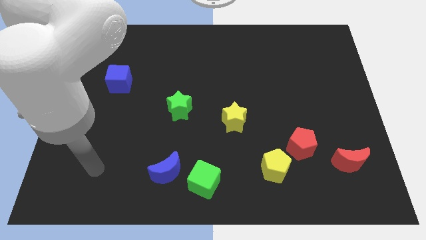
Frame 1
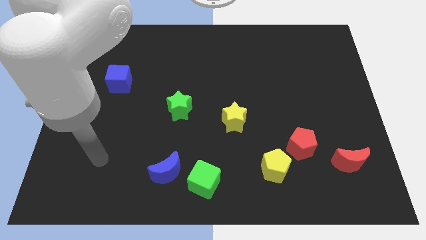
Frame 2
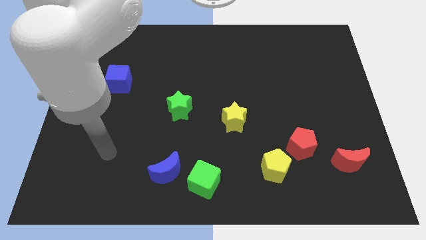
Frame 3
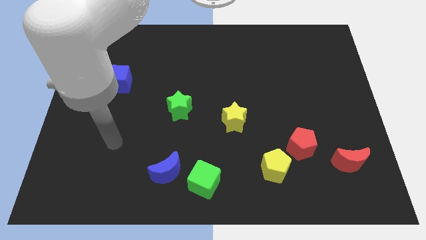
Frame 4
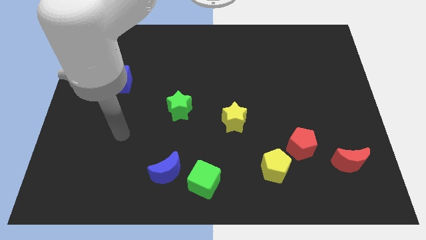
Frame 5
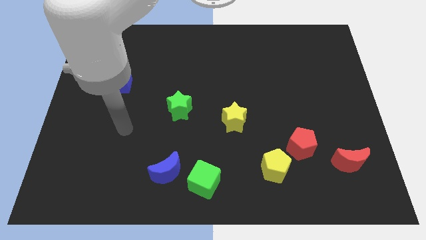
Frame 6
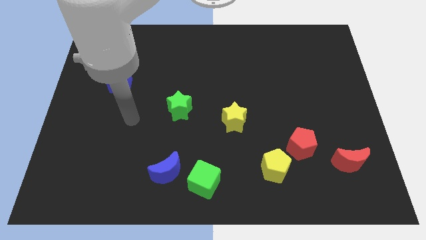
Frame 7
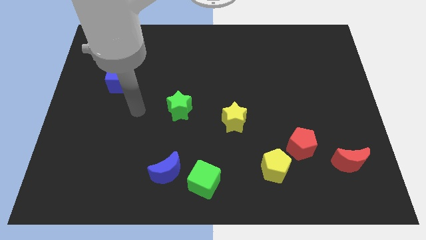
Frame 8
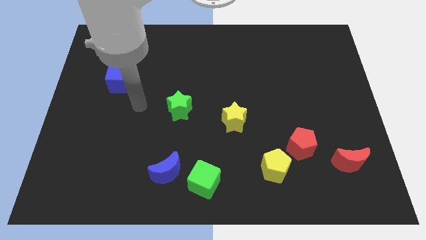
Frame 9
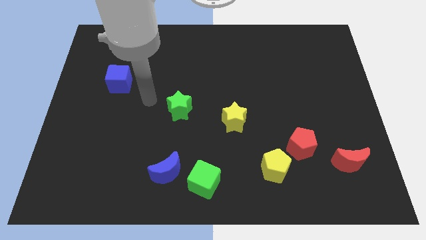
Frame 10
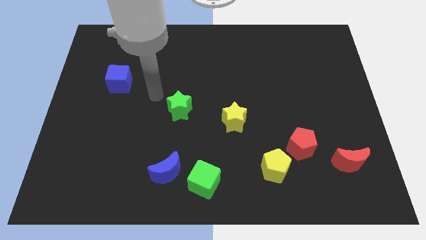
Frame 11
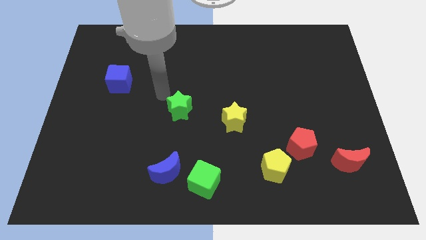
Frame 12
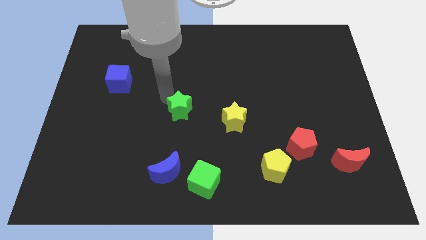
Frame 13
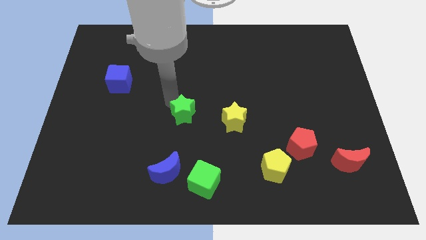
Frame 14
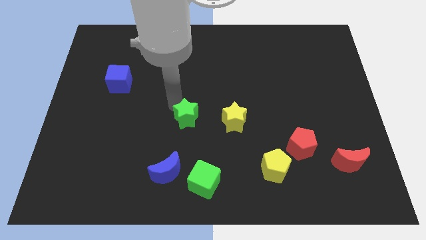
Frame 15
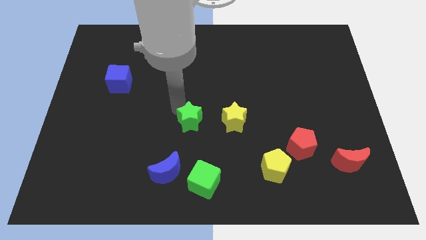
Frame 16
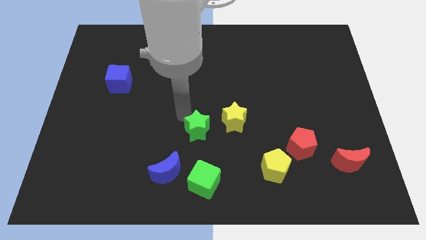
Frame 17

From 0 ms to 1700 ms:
slide the green star slightly down and then right

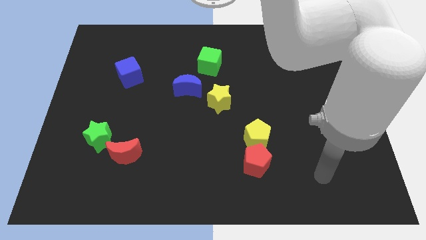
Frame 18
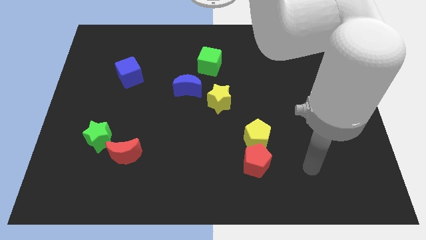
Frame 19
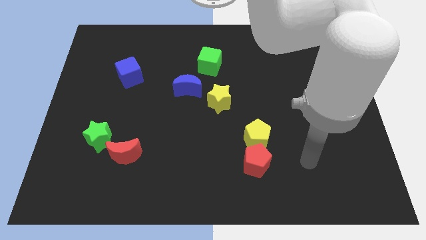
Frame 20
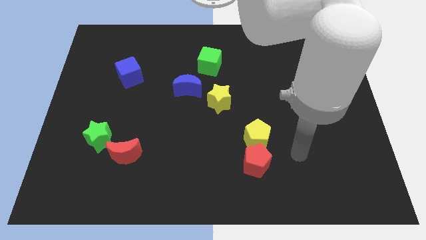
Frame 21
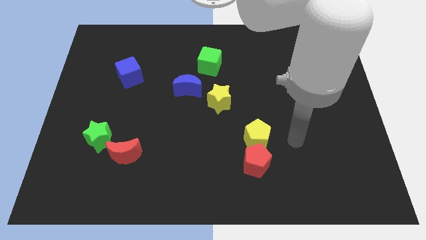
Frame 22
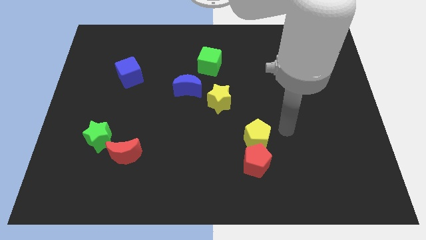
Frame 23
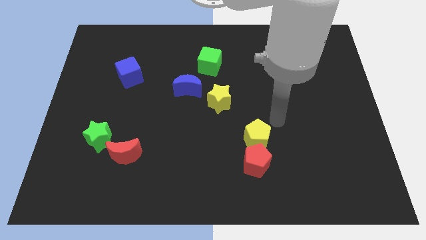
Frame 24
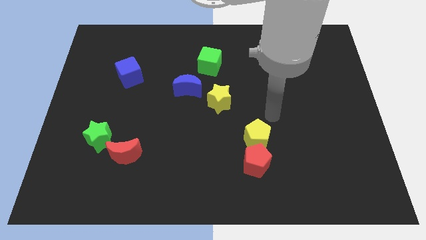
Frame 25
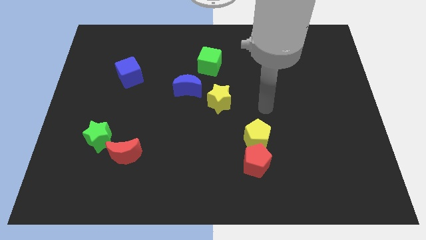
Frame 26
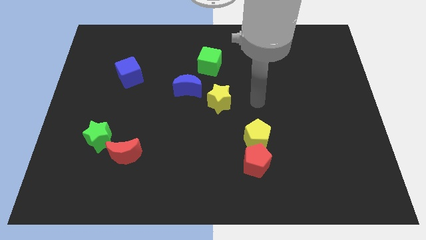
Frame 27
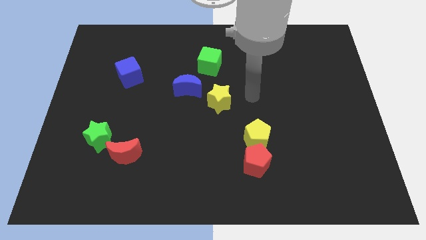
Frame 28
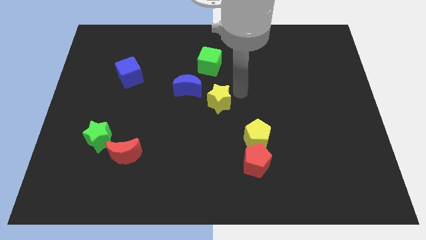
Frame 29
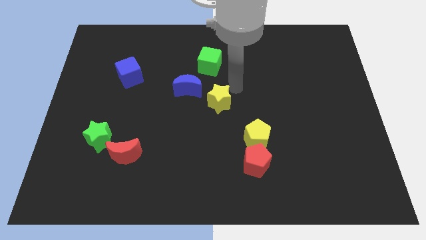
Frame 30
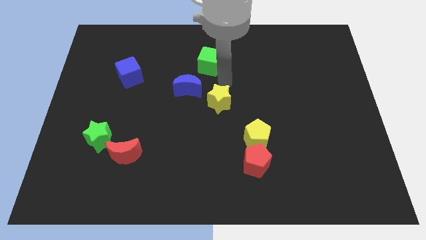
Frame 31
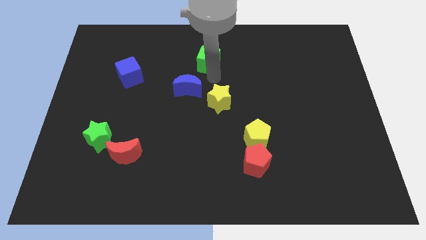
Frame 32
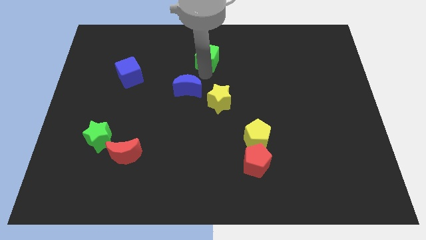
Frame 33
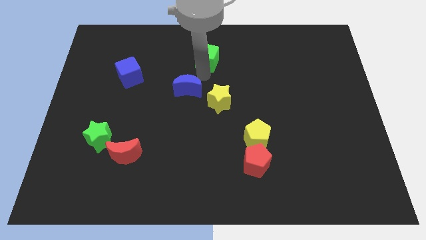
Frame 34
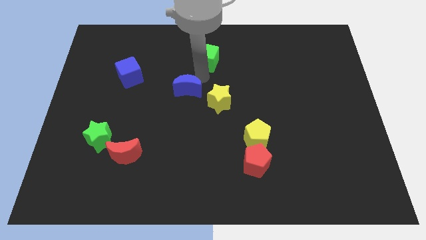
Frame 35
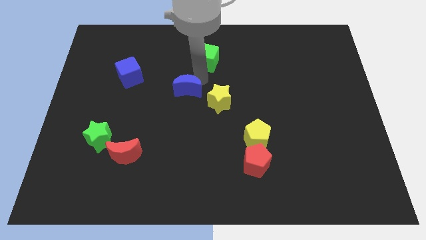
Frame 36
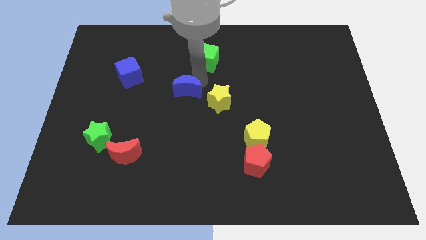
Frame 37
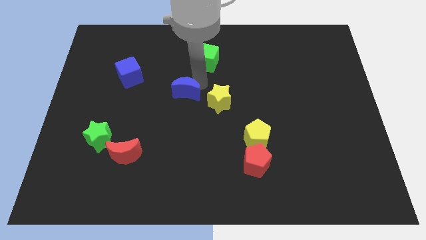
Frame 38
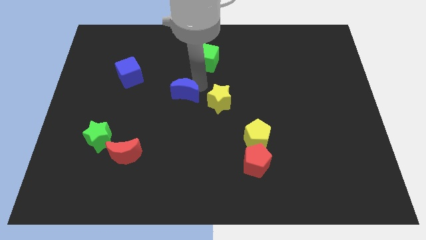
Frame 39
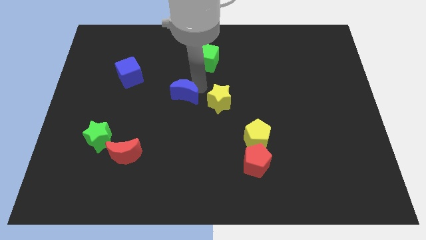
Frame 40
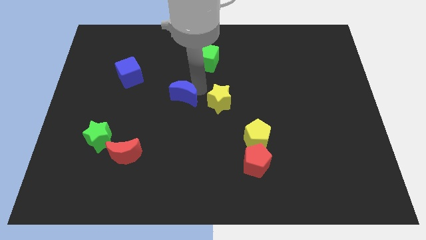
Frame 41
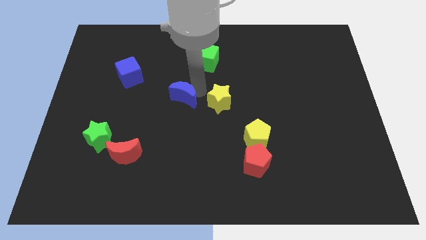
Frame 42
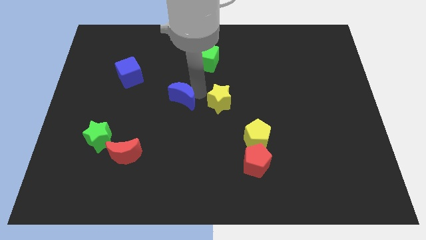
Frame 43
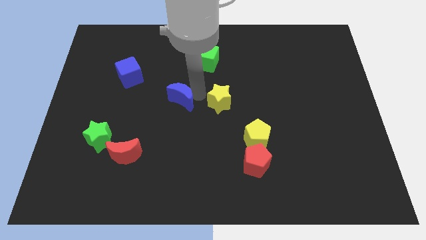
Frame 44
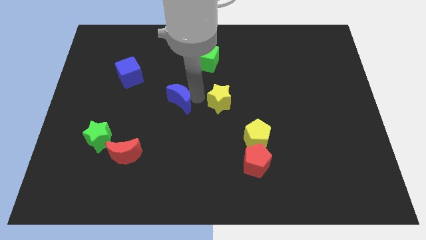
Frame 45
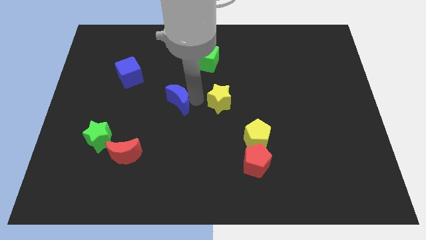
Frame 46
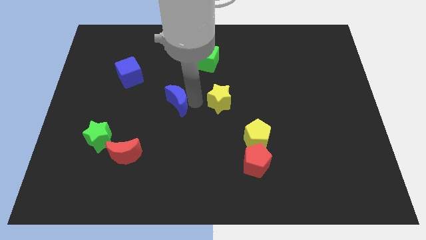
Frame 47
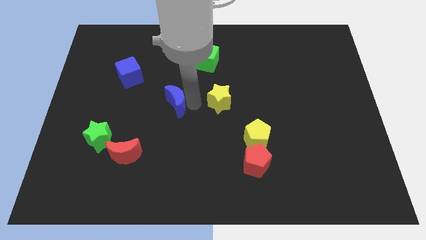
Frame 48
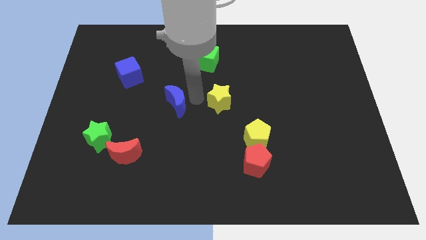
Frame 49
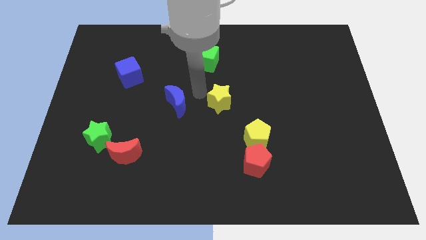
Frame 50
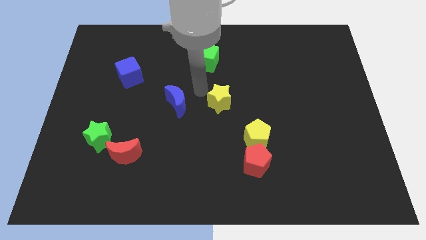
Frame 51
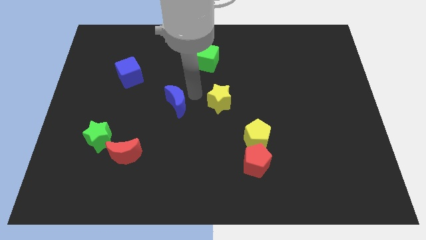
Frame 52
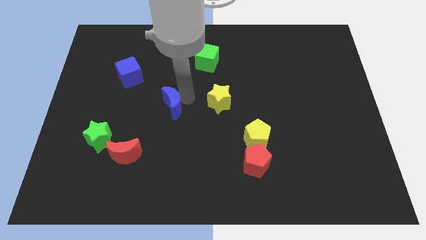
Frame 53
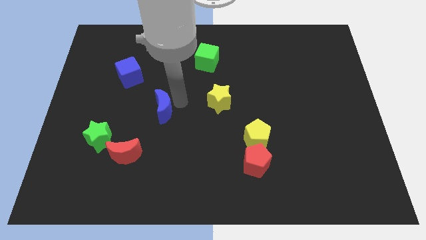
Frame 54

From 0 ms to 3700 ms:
push the blue moon slightly down and then to the left

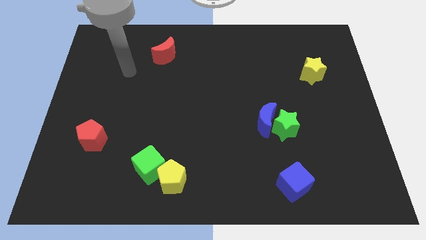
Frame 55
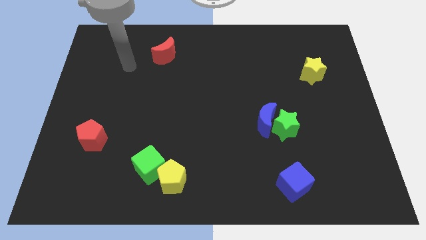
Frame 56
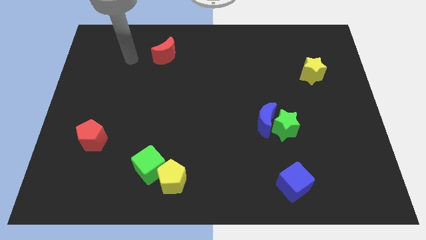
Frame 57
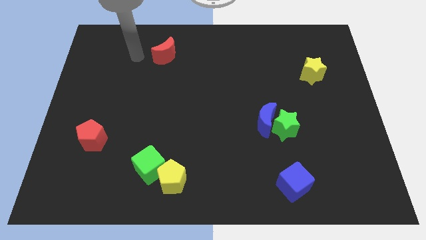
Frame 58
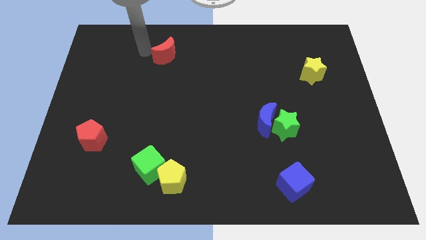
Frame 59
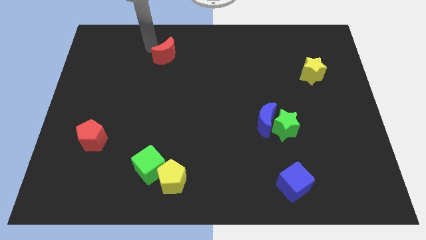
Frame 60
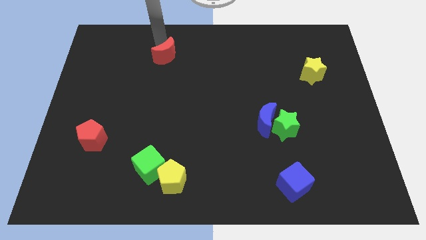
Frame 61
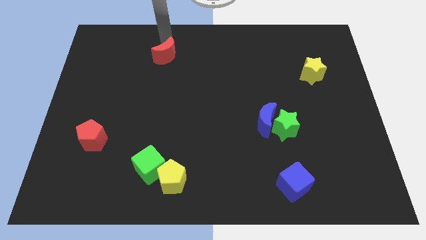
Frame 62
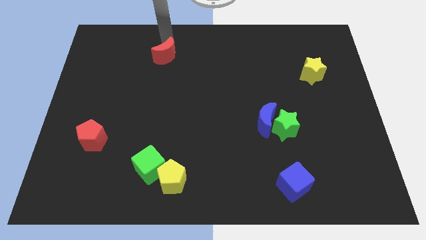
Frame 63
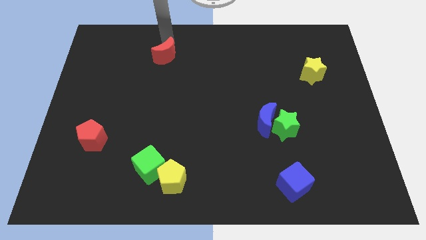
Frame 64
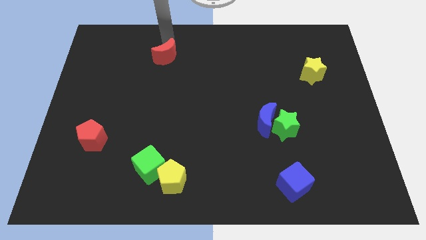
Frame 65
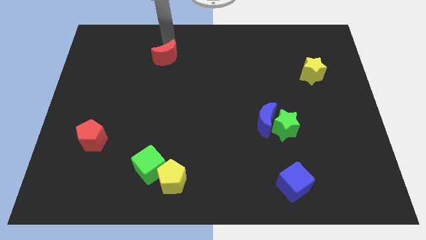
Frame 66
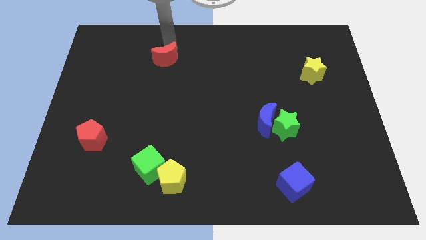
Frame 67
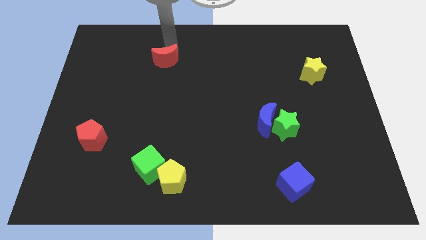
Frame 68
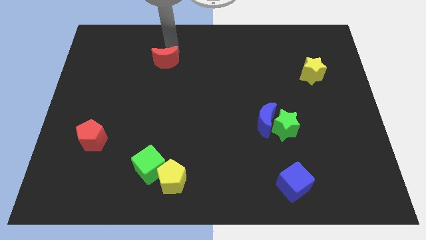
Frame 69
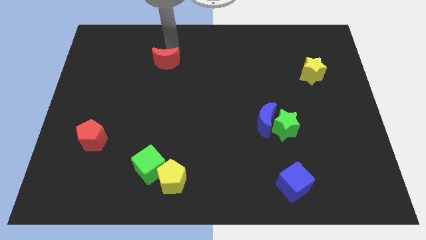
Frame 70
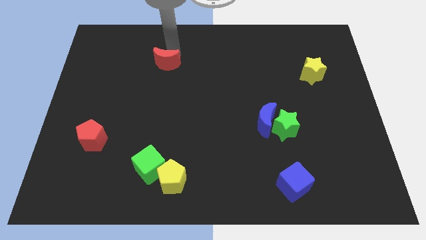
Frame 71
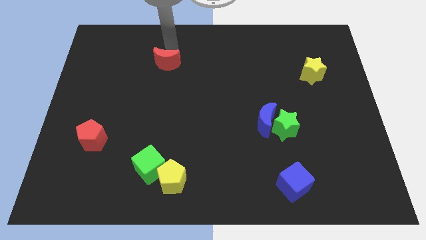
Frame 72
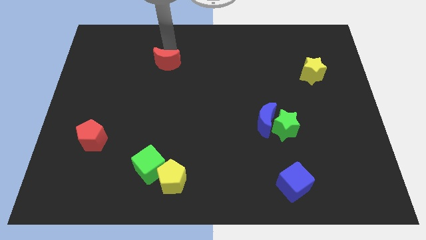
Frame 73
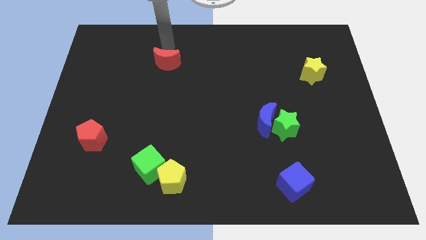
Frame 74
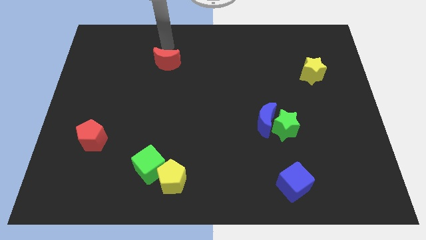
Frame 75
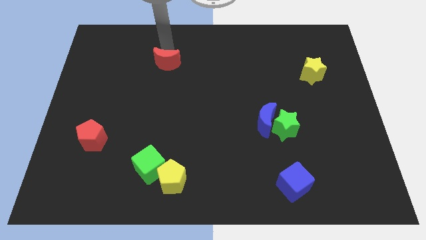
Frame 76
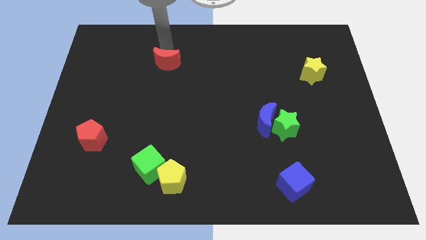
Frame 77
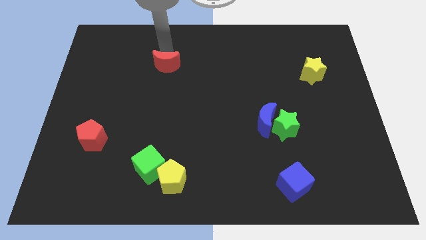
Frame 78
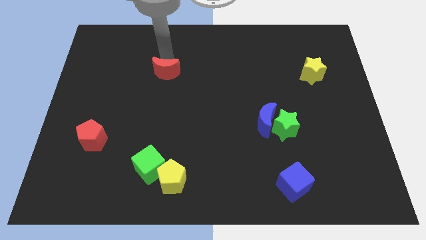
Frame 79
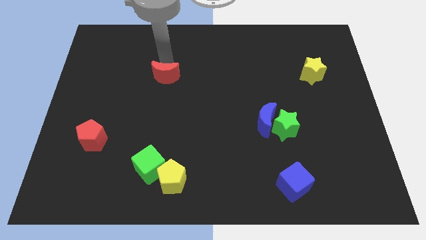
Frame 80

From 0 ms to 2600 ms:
push the red moon somewhat down
